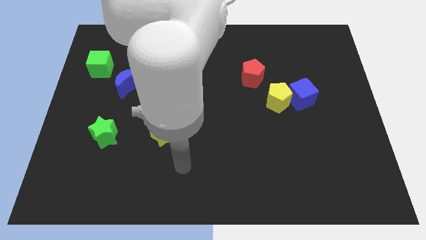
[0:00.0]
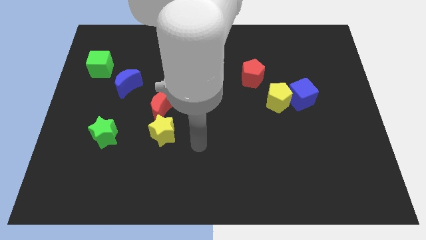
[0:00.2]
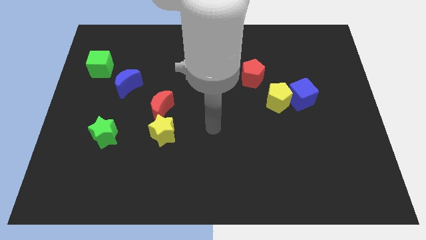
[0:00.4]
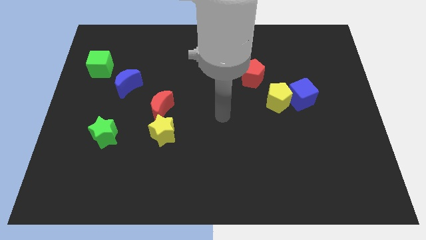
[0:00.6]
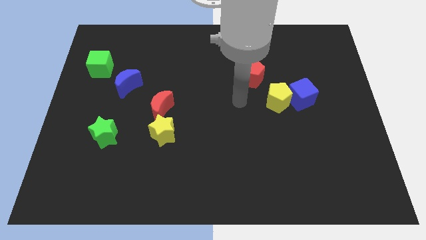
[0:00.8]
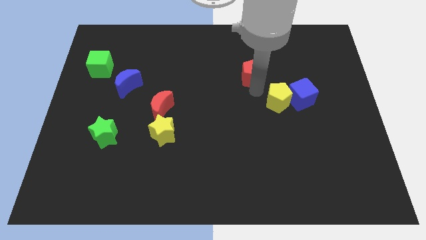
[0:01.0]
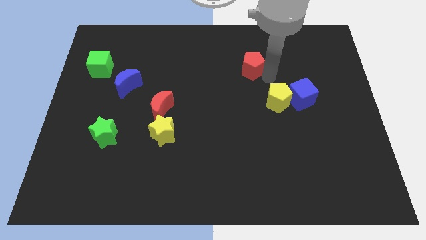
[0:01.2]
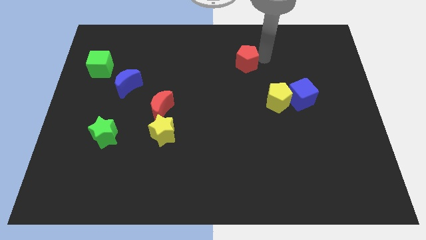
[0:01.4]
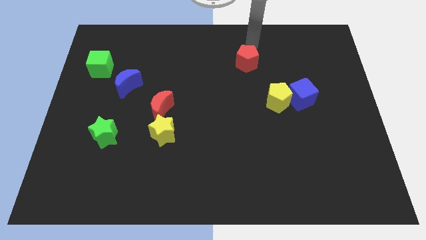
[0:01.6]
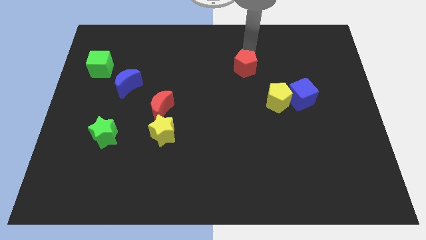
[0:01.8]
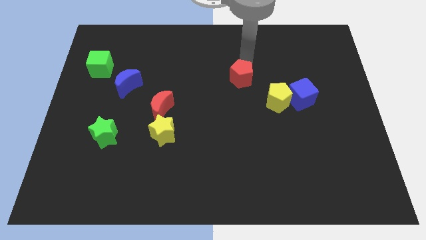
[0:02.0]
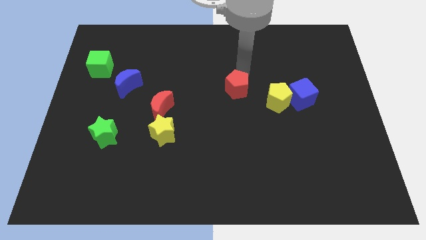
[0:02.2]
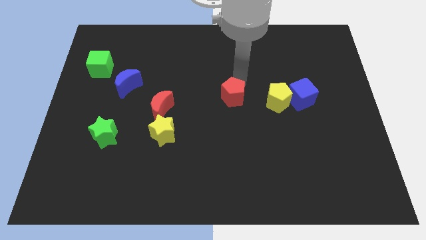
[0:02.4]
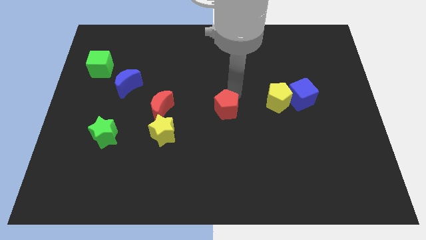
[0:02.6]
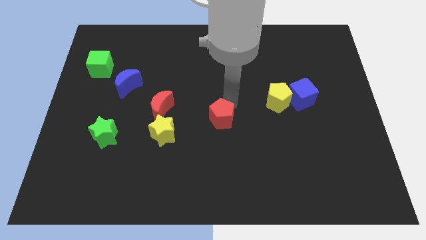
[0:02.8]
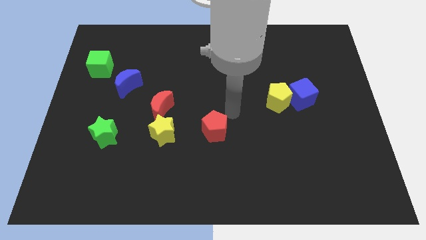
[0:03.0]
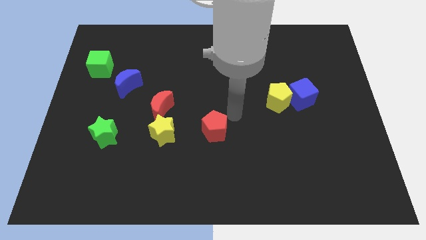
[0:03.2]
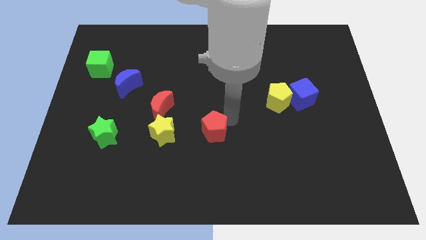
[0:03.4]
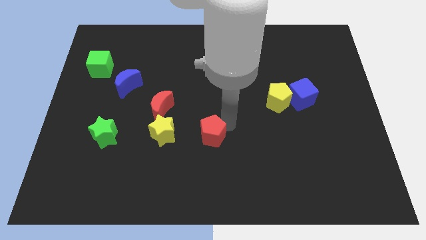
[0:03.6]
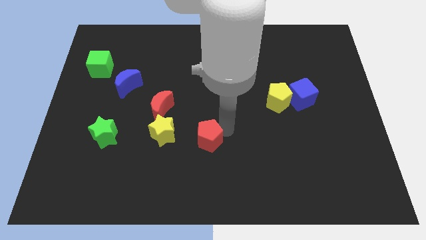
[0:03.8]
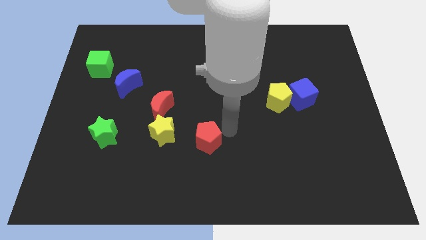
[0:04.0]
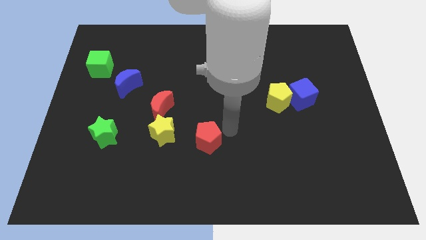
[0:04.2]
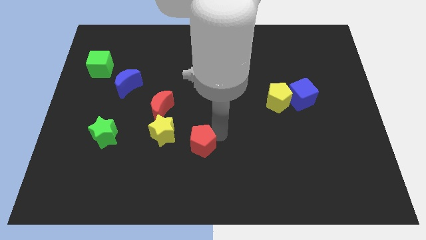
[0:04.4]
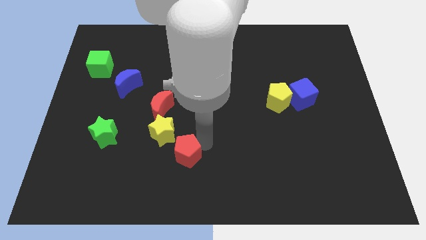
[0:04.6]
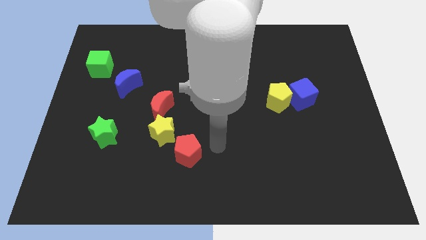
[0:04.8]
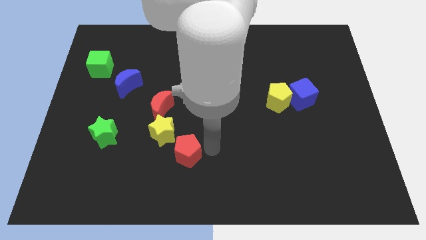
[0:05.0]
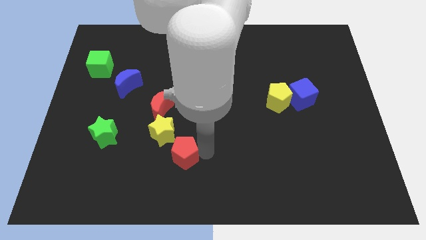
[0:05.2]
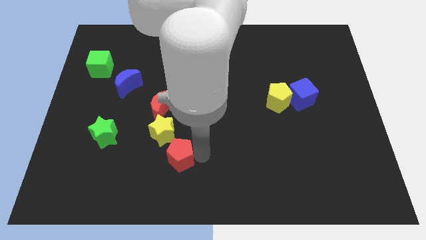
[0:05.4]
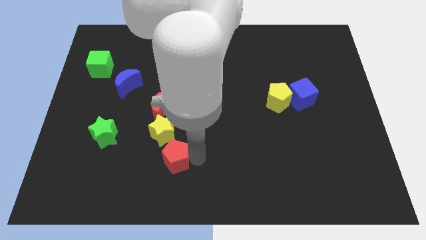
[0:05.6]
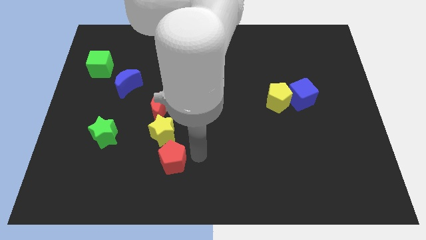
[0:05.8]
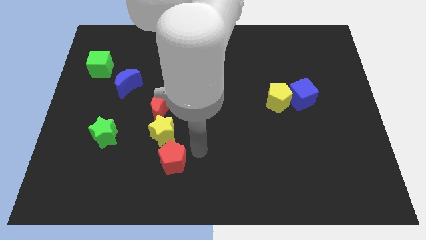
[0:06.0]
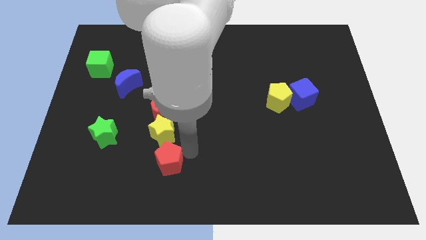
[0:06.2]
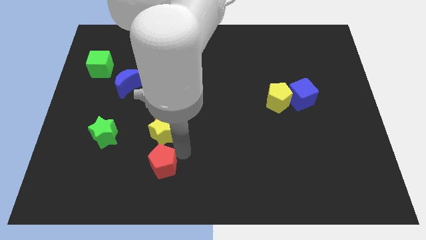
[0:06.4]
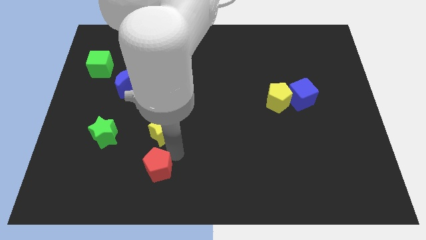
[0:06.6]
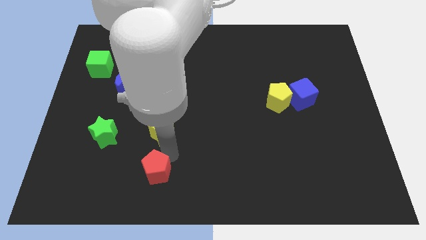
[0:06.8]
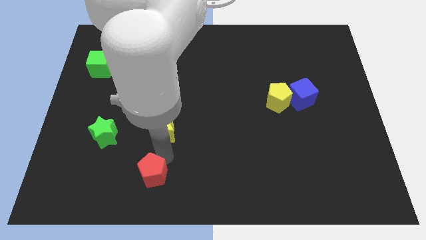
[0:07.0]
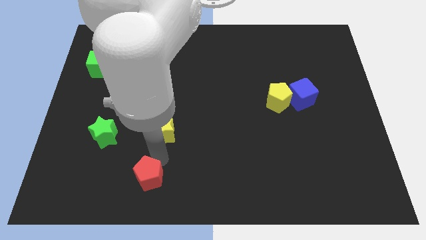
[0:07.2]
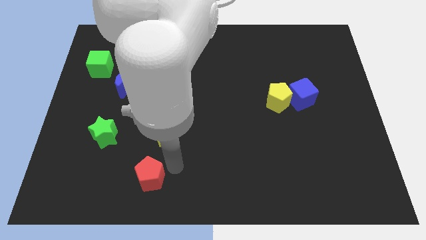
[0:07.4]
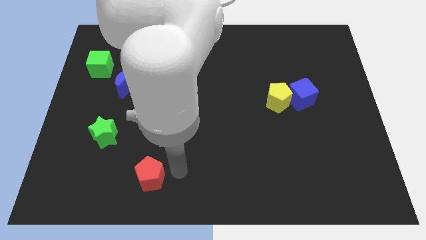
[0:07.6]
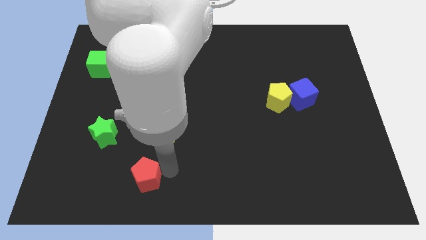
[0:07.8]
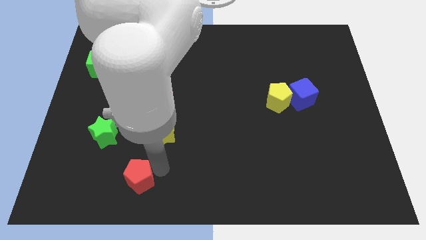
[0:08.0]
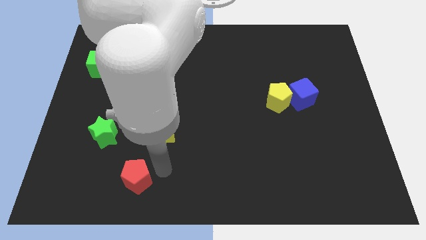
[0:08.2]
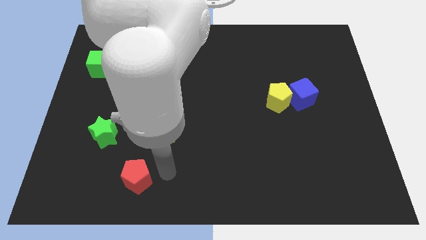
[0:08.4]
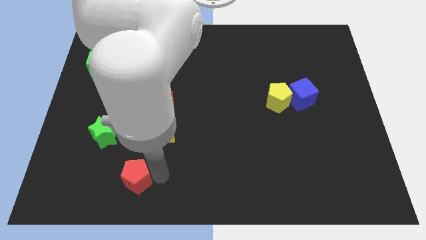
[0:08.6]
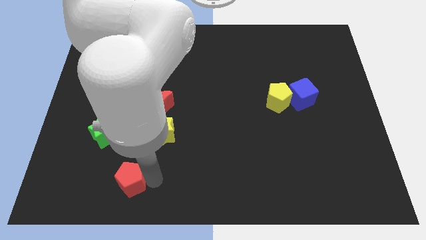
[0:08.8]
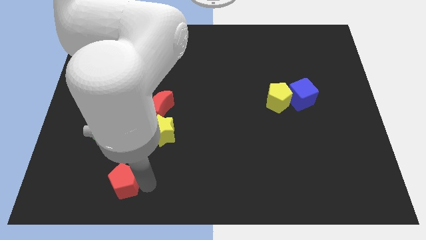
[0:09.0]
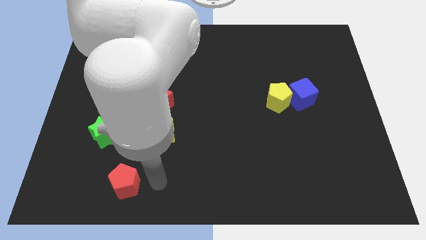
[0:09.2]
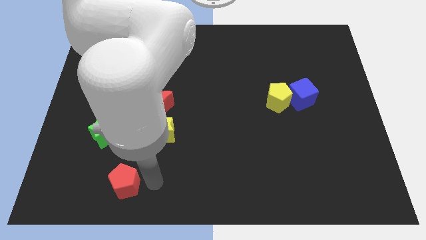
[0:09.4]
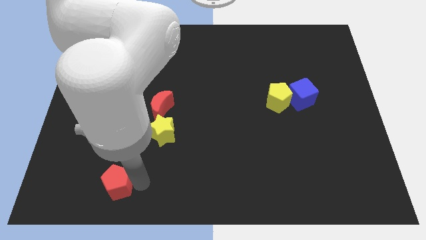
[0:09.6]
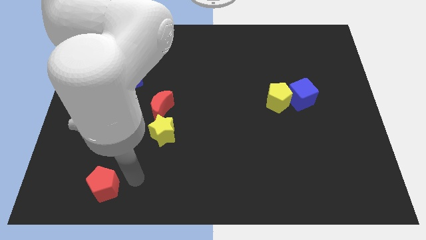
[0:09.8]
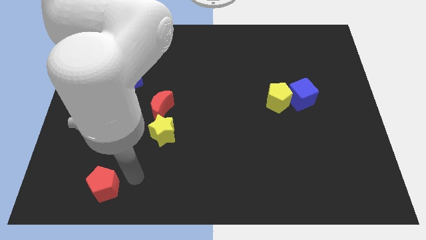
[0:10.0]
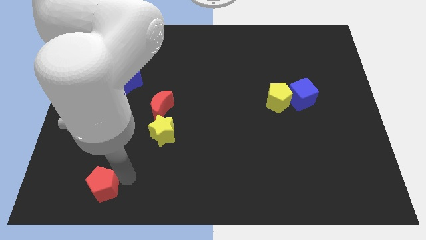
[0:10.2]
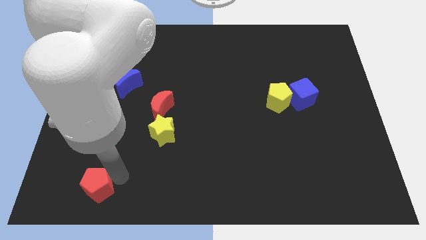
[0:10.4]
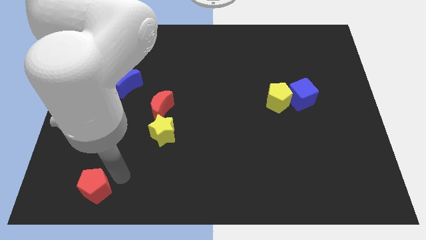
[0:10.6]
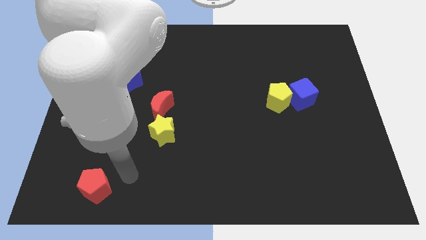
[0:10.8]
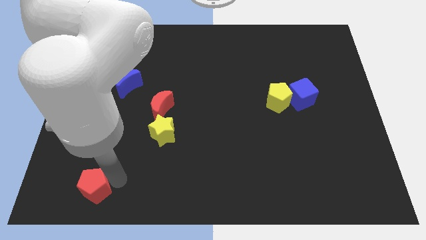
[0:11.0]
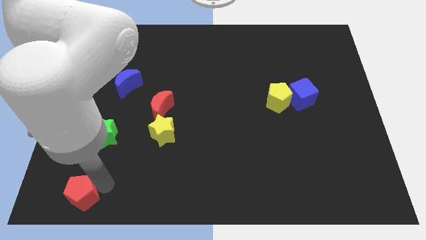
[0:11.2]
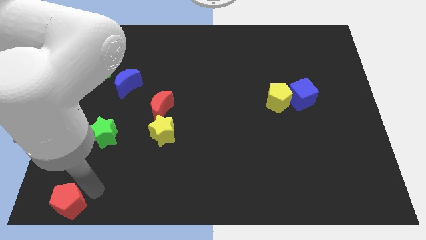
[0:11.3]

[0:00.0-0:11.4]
push the red pentagon to the bottom left

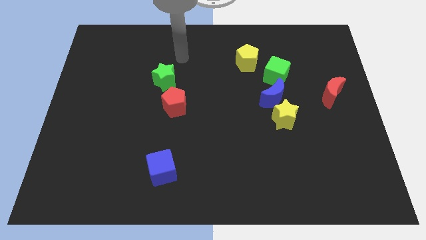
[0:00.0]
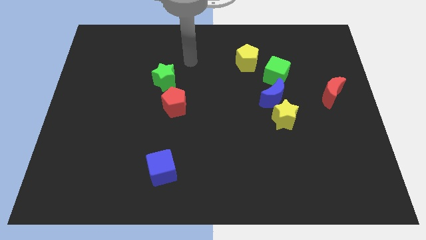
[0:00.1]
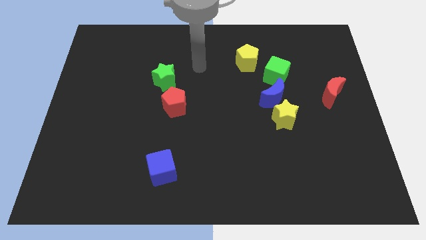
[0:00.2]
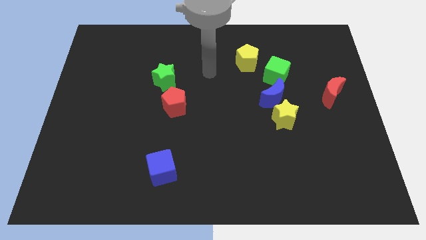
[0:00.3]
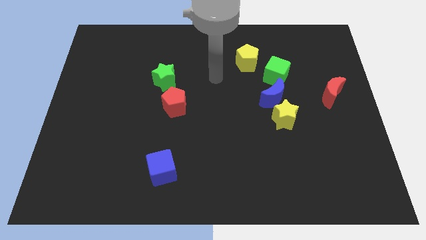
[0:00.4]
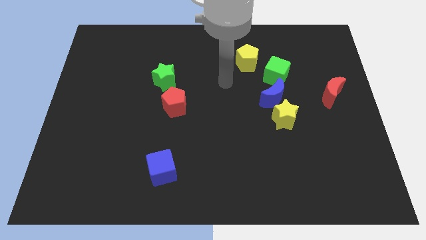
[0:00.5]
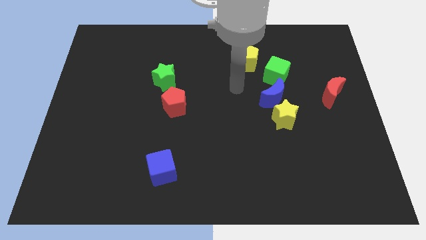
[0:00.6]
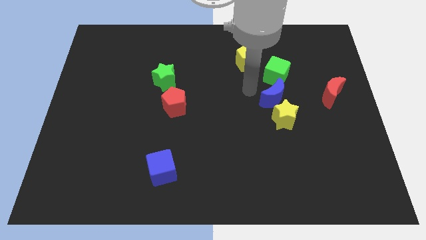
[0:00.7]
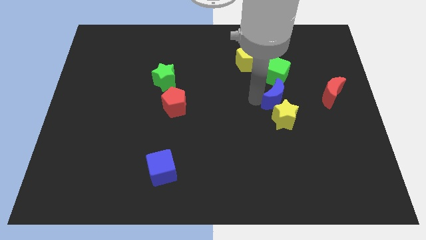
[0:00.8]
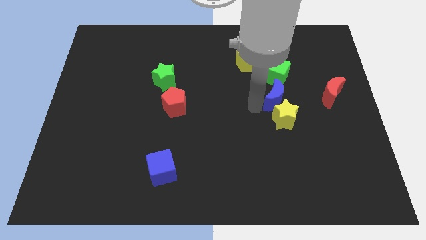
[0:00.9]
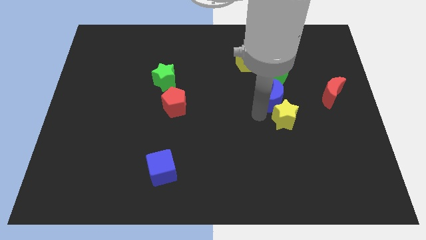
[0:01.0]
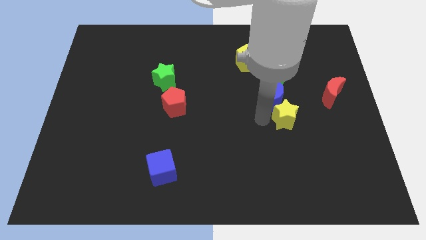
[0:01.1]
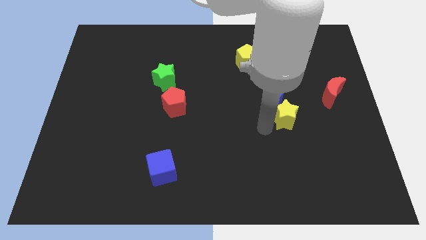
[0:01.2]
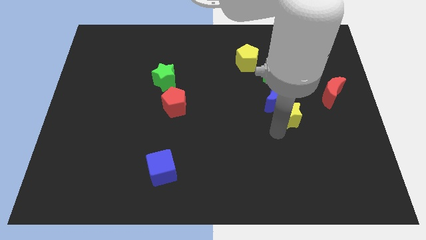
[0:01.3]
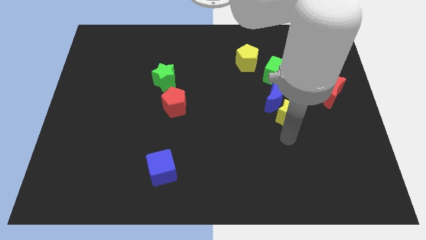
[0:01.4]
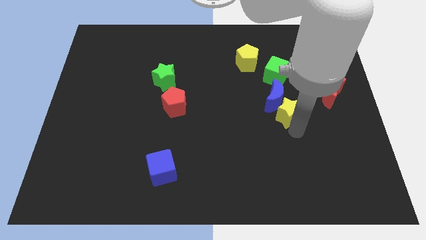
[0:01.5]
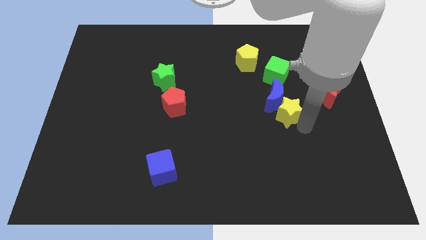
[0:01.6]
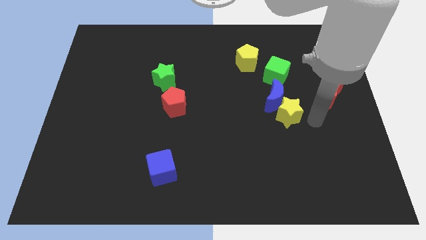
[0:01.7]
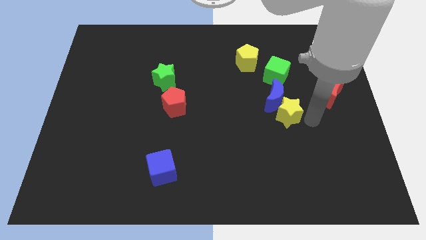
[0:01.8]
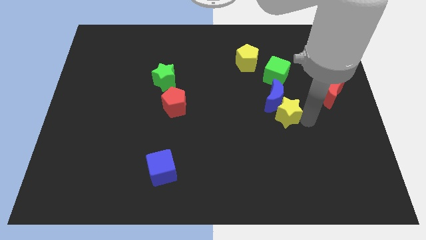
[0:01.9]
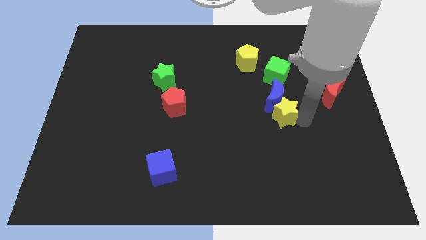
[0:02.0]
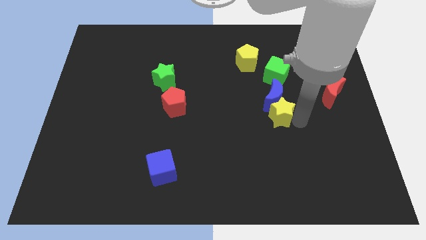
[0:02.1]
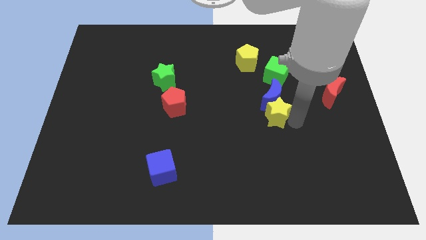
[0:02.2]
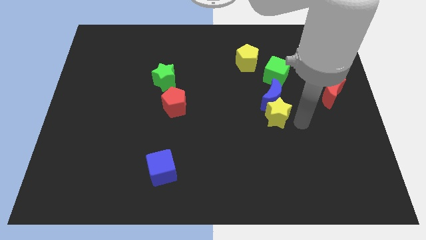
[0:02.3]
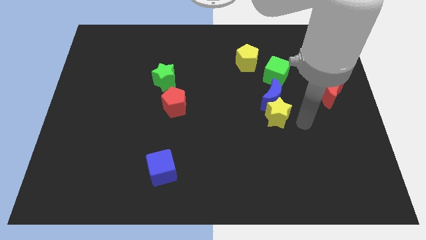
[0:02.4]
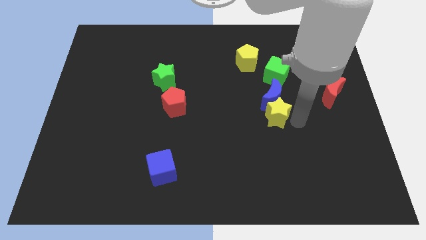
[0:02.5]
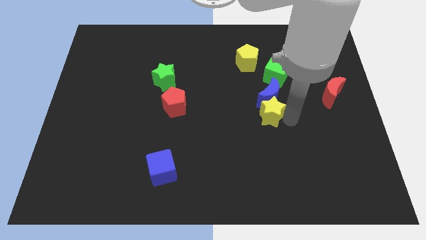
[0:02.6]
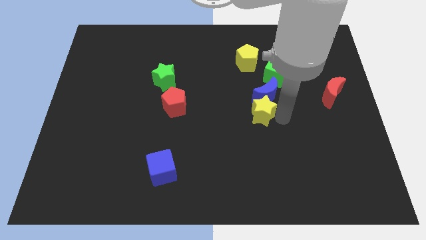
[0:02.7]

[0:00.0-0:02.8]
push the yellow star to the middle of the board
